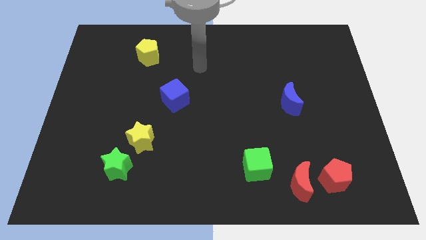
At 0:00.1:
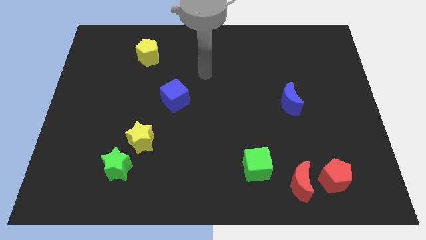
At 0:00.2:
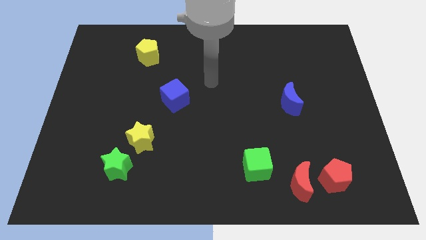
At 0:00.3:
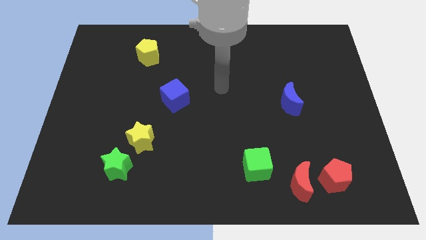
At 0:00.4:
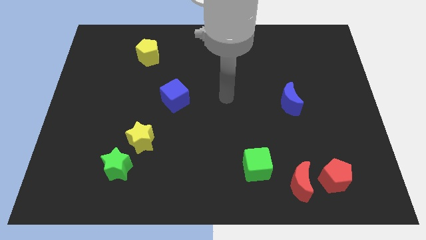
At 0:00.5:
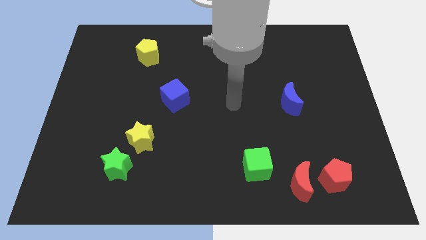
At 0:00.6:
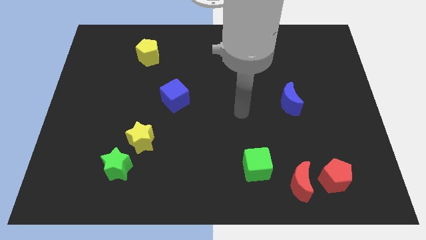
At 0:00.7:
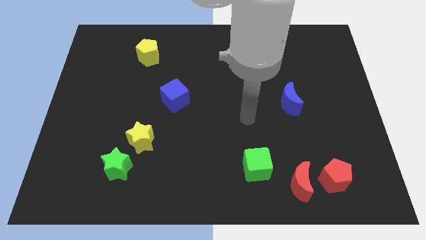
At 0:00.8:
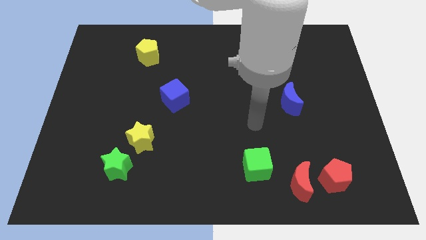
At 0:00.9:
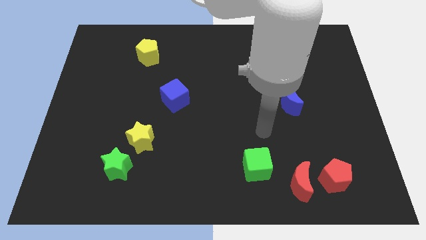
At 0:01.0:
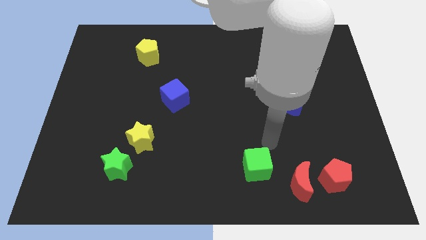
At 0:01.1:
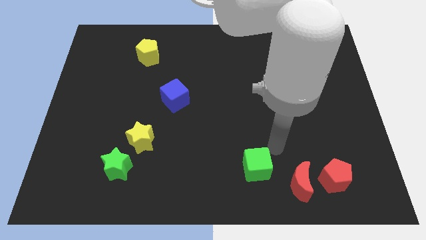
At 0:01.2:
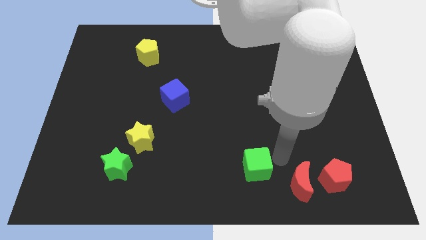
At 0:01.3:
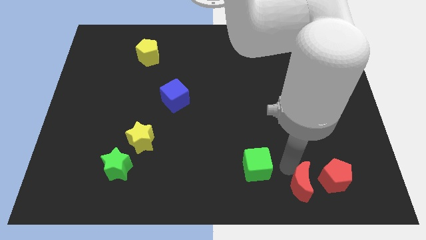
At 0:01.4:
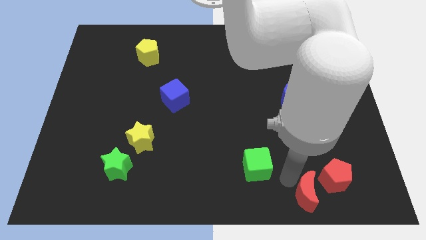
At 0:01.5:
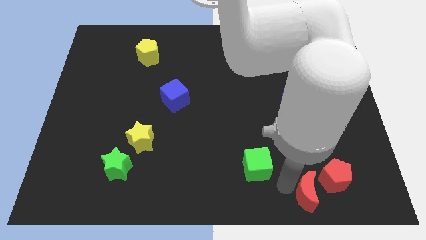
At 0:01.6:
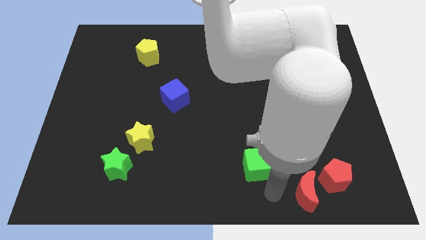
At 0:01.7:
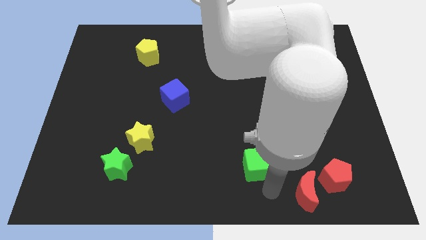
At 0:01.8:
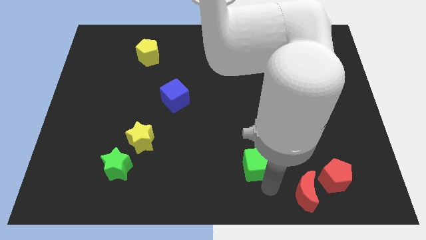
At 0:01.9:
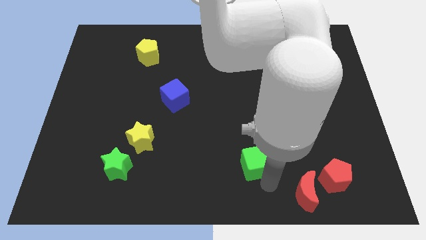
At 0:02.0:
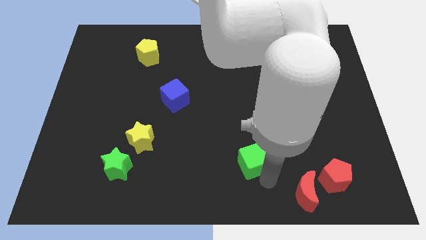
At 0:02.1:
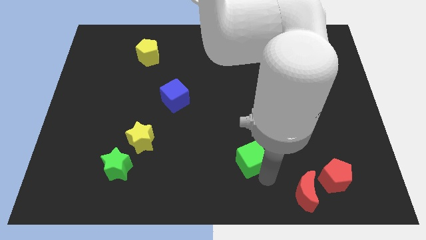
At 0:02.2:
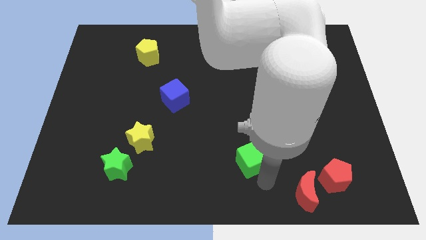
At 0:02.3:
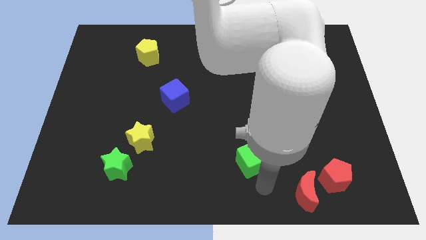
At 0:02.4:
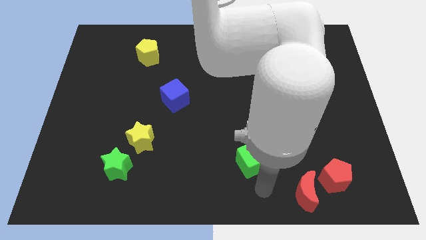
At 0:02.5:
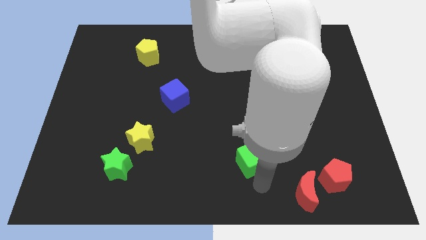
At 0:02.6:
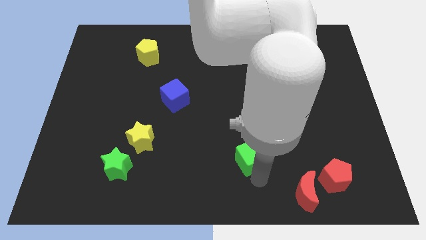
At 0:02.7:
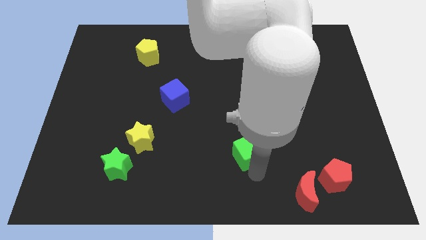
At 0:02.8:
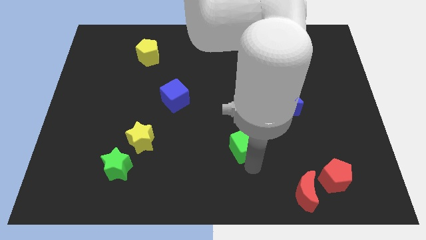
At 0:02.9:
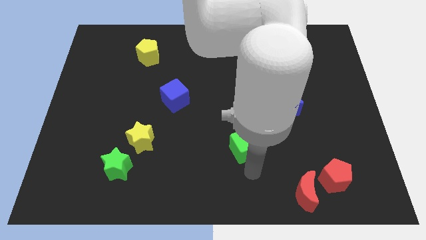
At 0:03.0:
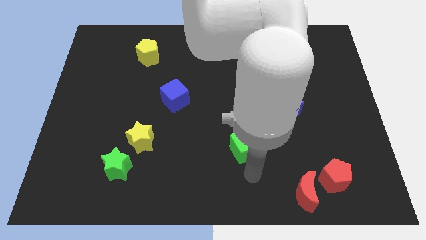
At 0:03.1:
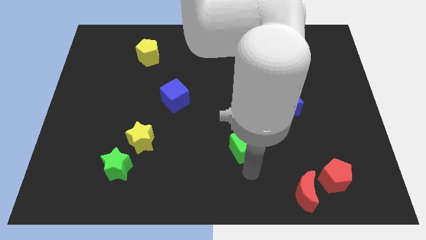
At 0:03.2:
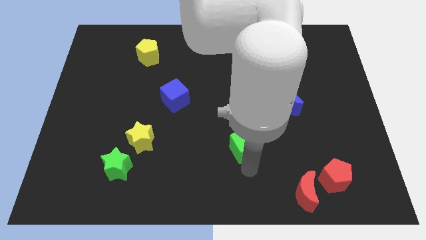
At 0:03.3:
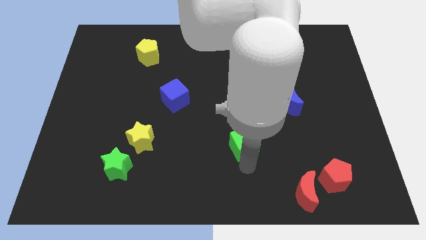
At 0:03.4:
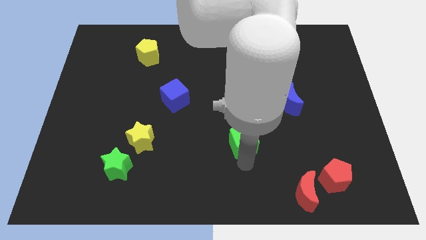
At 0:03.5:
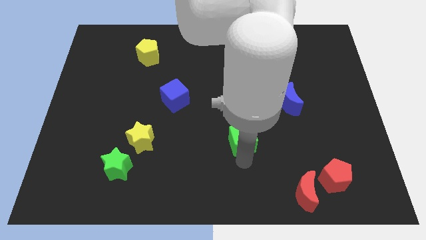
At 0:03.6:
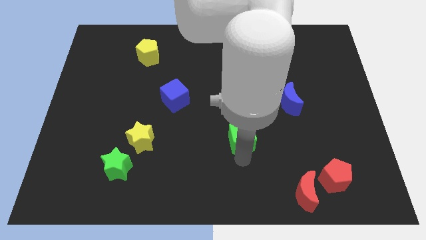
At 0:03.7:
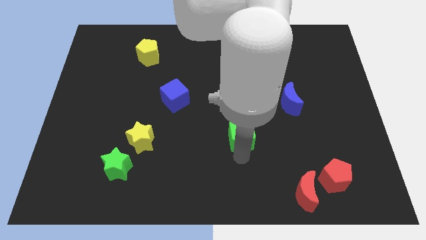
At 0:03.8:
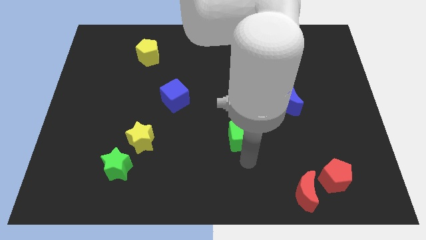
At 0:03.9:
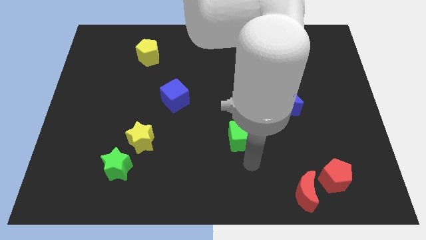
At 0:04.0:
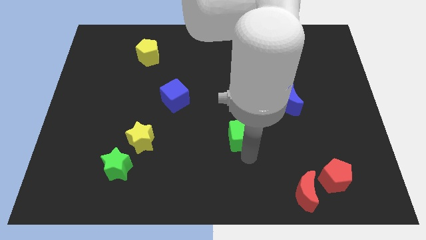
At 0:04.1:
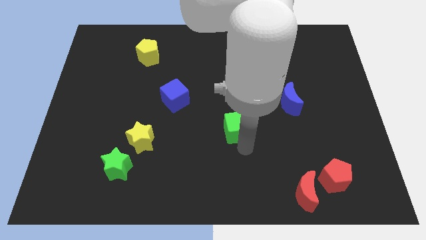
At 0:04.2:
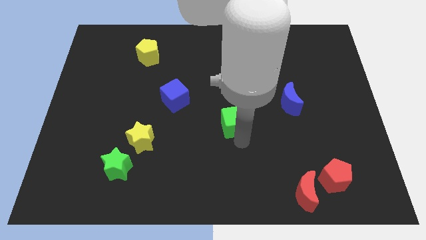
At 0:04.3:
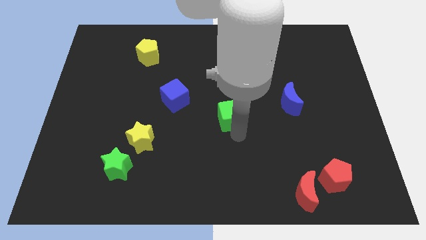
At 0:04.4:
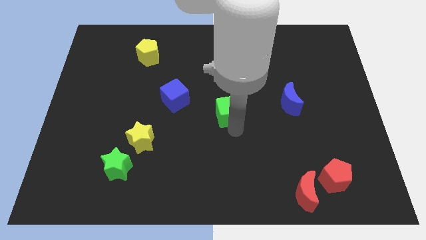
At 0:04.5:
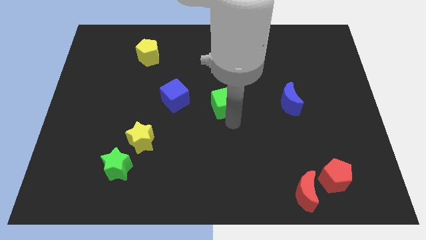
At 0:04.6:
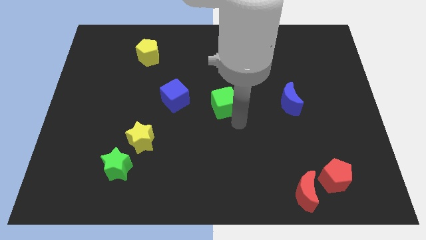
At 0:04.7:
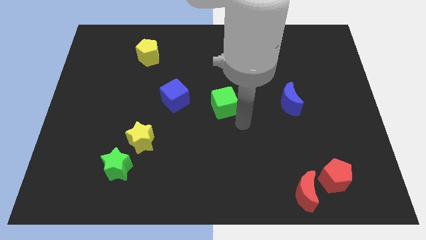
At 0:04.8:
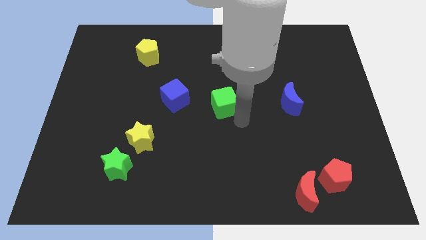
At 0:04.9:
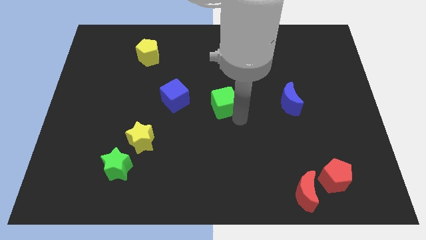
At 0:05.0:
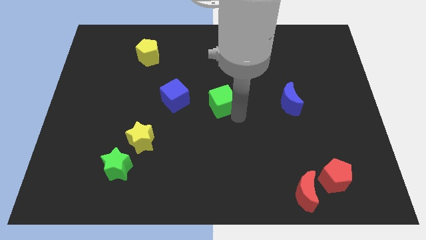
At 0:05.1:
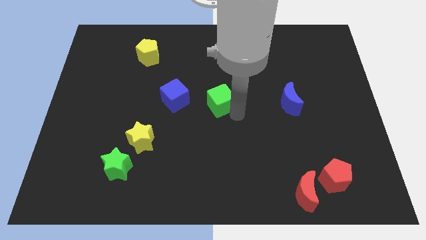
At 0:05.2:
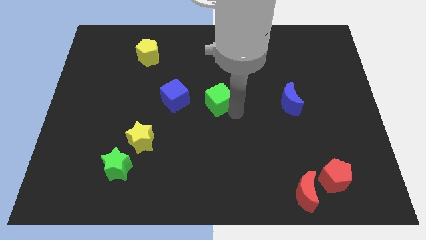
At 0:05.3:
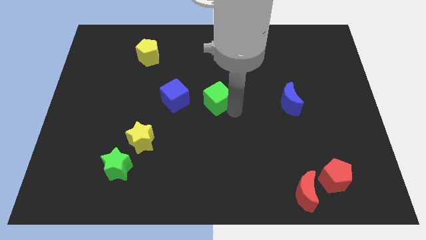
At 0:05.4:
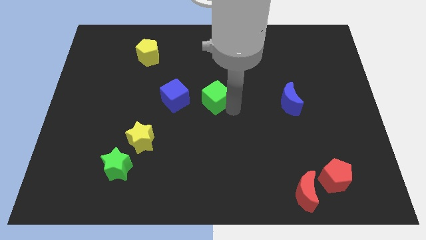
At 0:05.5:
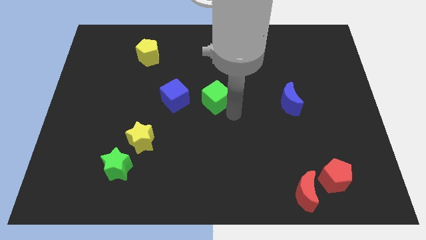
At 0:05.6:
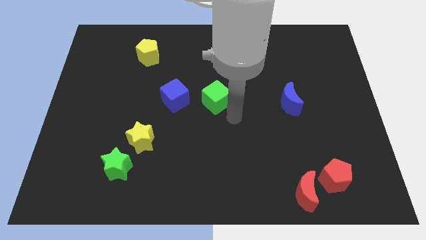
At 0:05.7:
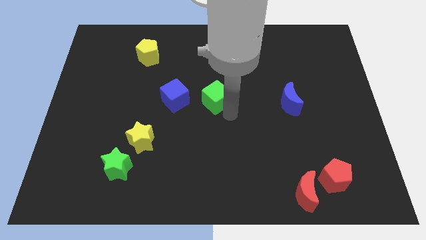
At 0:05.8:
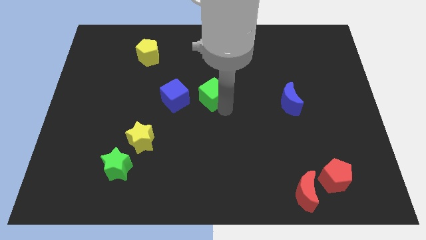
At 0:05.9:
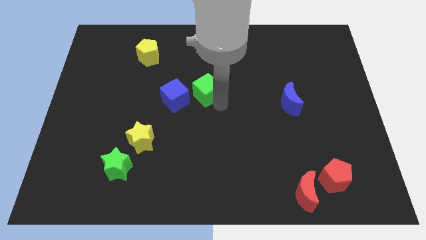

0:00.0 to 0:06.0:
slide the green cube to the top right side of the blue cube

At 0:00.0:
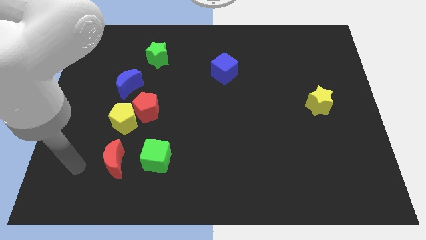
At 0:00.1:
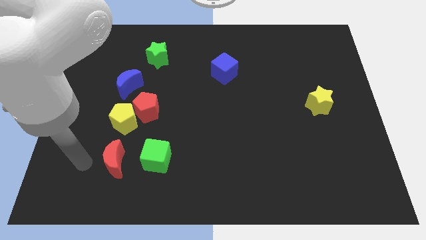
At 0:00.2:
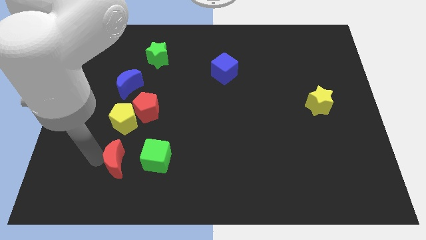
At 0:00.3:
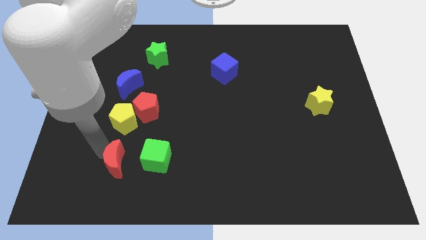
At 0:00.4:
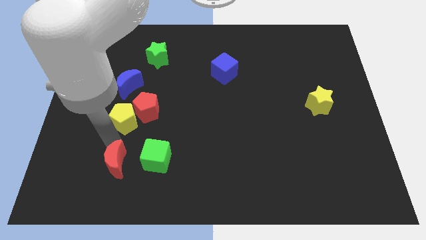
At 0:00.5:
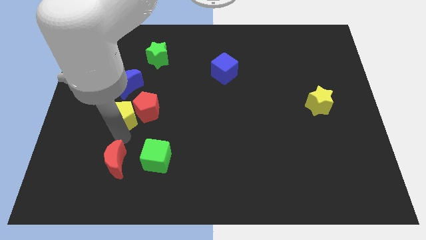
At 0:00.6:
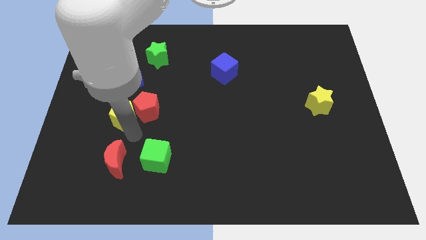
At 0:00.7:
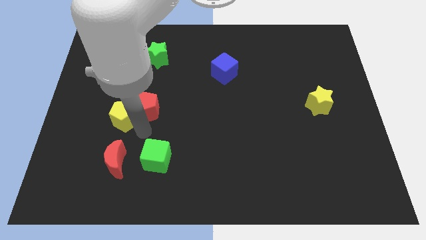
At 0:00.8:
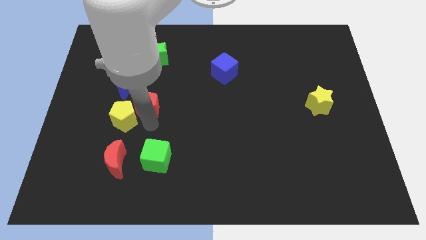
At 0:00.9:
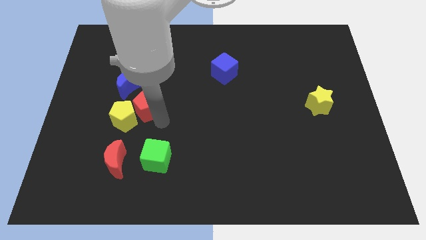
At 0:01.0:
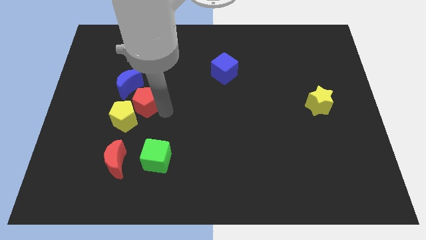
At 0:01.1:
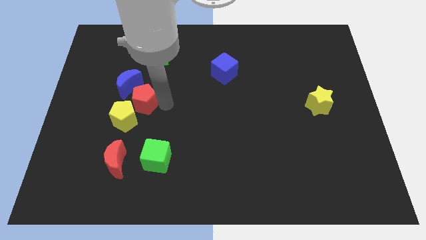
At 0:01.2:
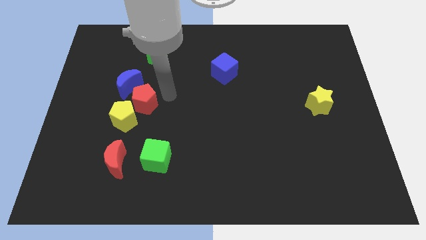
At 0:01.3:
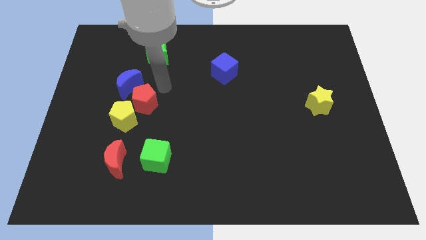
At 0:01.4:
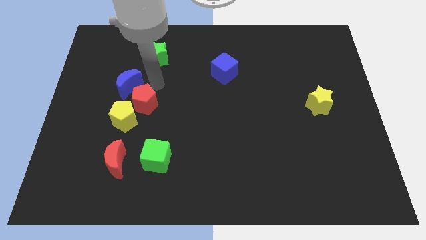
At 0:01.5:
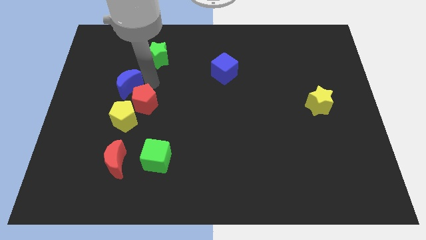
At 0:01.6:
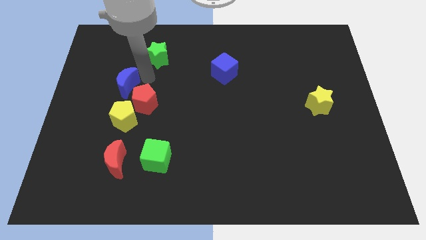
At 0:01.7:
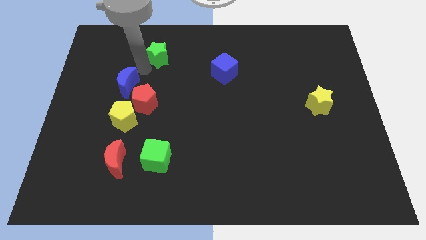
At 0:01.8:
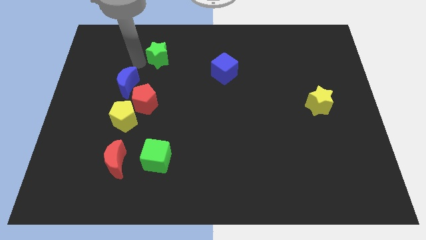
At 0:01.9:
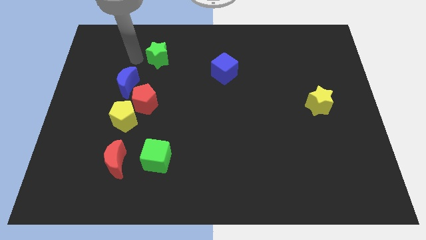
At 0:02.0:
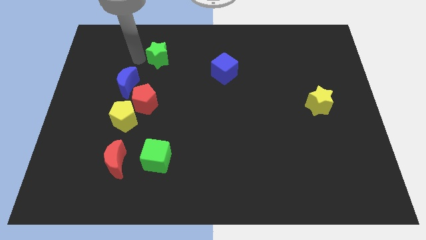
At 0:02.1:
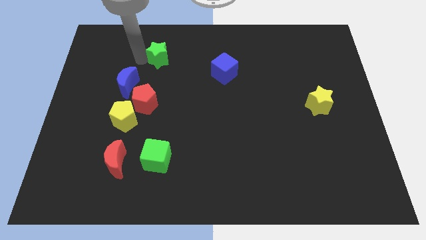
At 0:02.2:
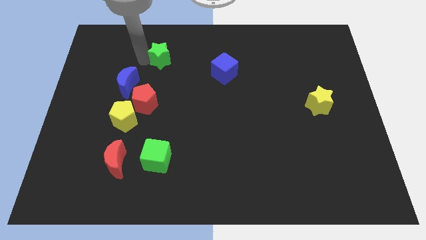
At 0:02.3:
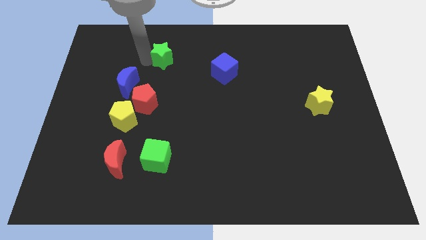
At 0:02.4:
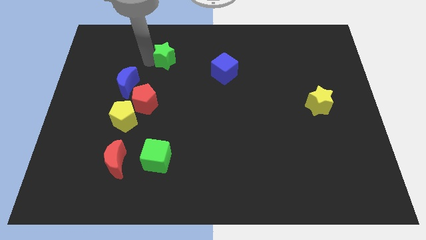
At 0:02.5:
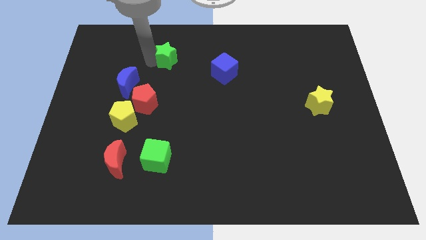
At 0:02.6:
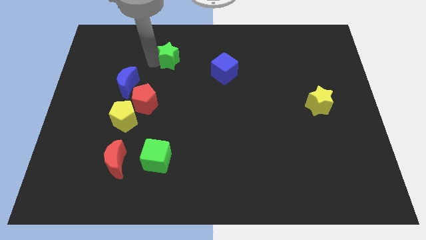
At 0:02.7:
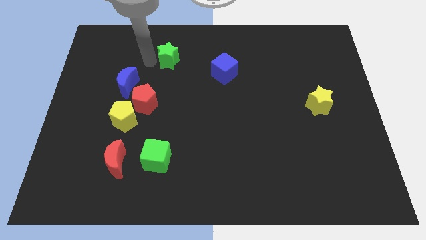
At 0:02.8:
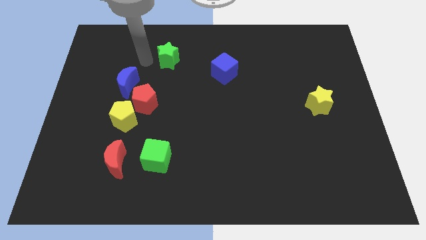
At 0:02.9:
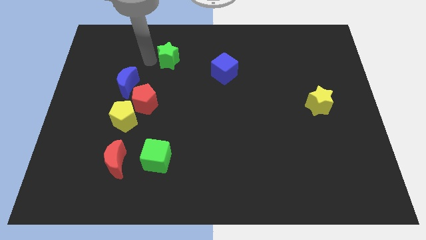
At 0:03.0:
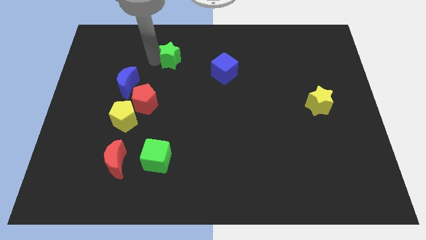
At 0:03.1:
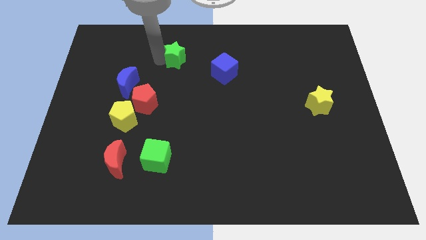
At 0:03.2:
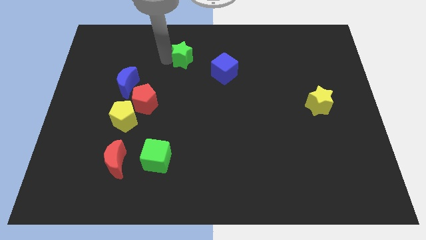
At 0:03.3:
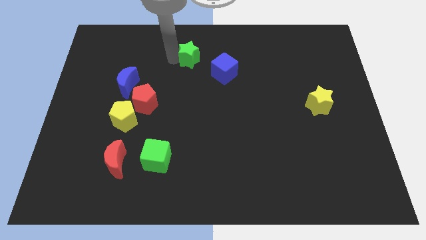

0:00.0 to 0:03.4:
put the green star diagonally up and to the left of the blue cube
